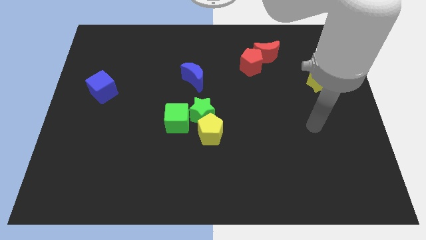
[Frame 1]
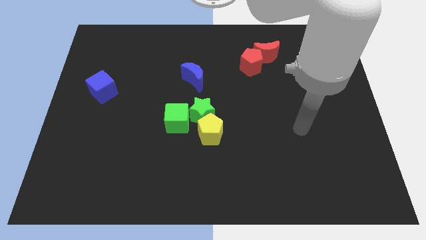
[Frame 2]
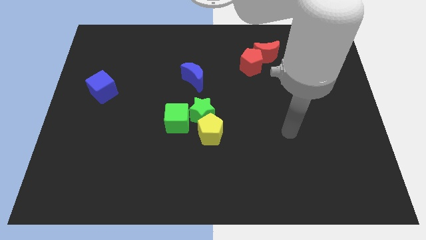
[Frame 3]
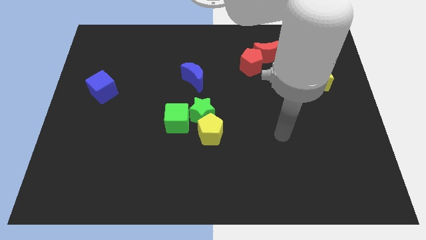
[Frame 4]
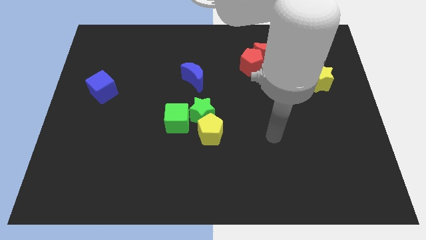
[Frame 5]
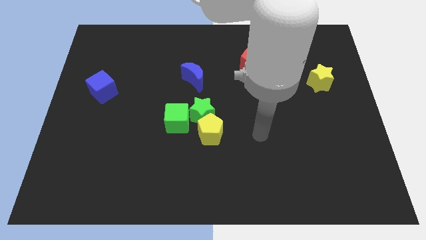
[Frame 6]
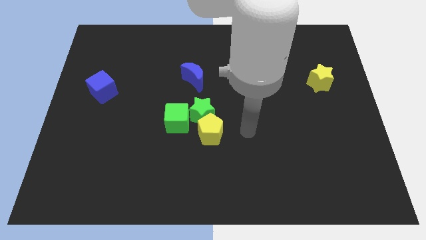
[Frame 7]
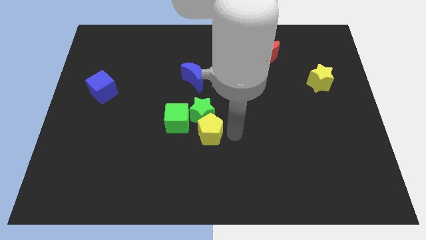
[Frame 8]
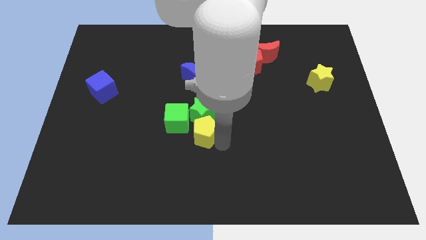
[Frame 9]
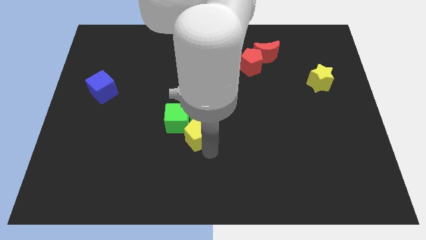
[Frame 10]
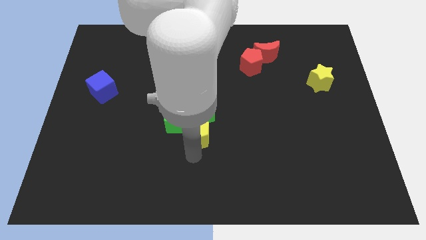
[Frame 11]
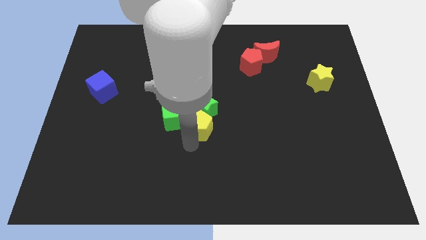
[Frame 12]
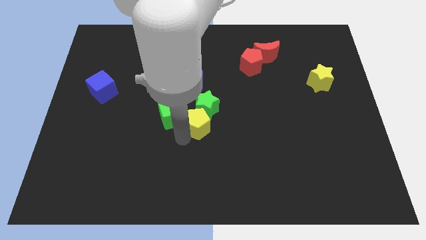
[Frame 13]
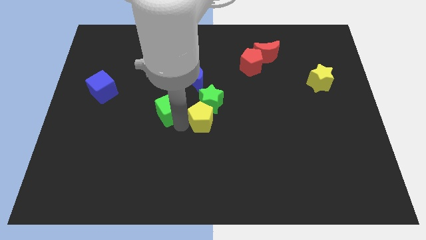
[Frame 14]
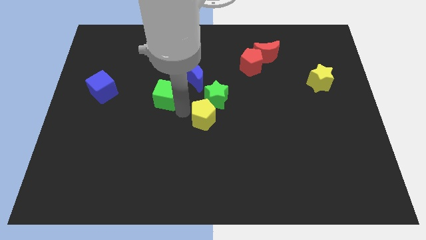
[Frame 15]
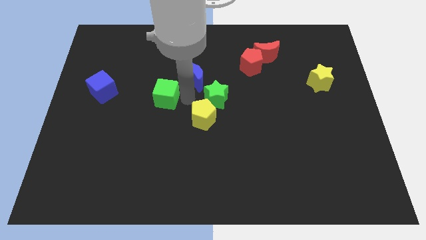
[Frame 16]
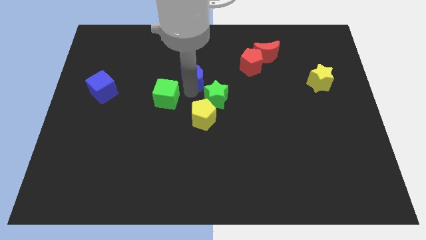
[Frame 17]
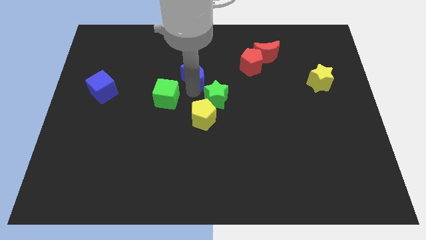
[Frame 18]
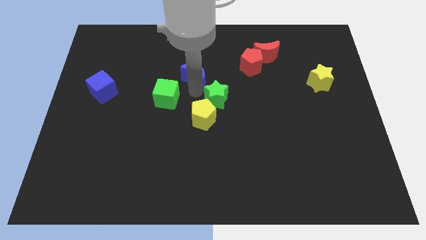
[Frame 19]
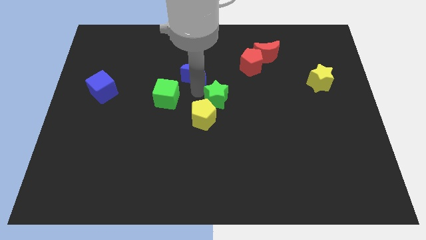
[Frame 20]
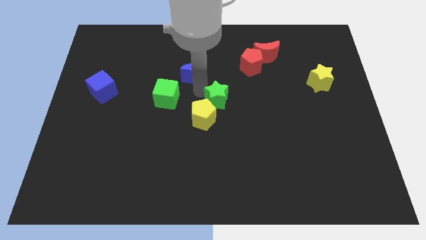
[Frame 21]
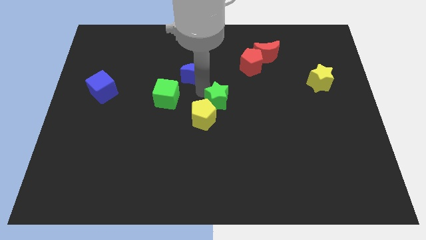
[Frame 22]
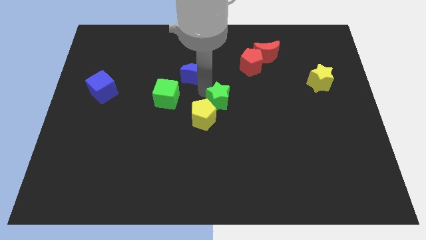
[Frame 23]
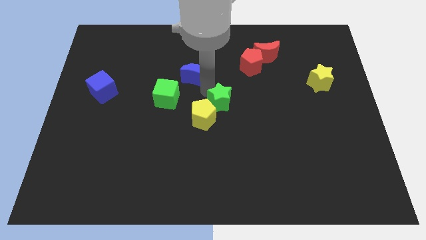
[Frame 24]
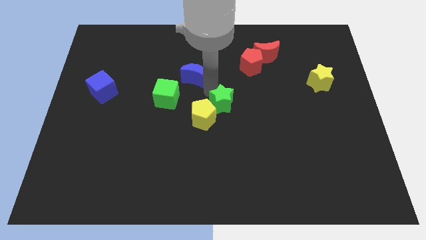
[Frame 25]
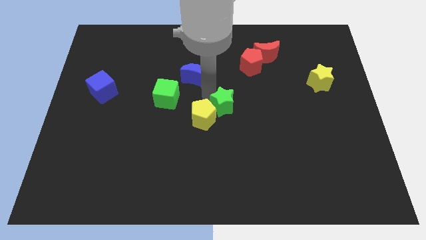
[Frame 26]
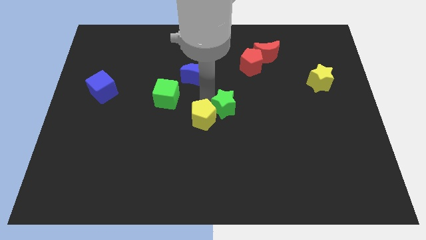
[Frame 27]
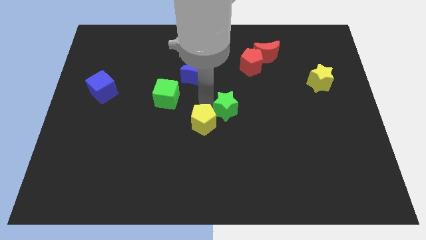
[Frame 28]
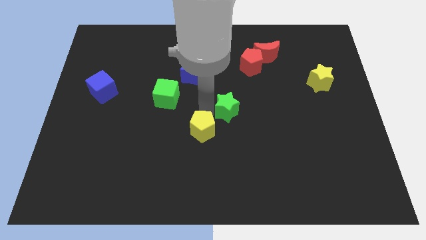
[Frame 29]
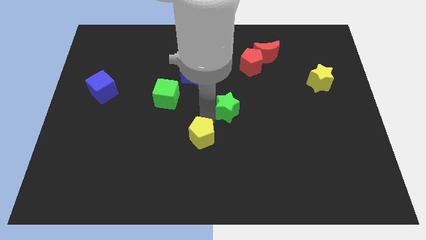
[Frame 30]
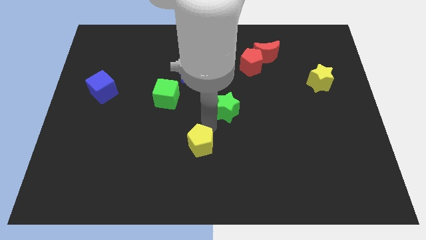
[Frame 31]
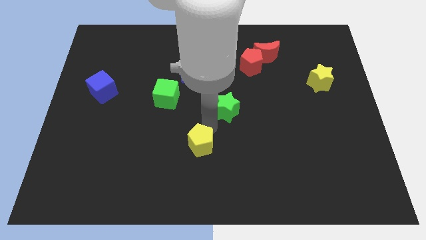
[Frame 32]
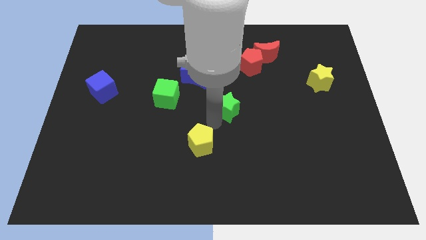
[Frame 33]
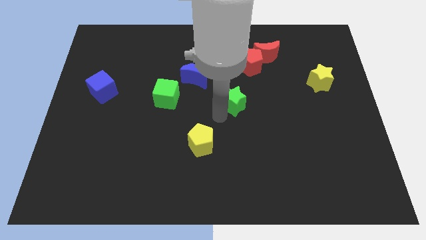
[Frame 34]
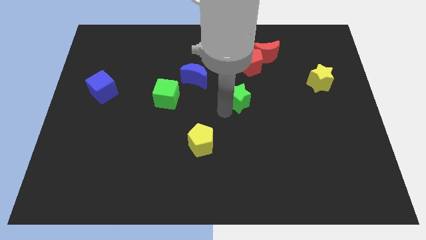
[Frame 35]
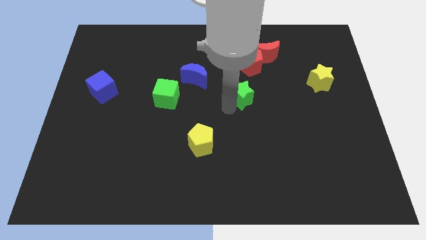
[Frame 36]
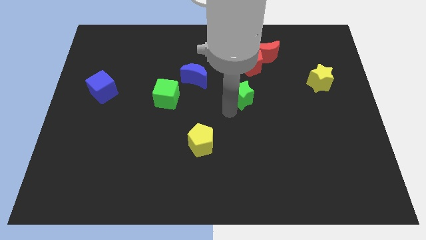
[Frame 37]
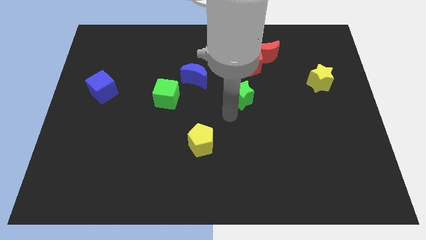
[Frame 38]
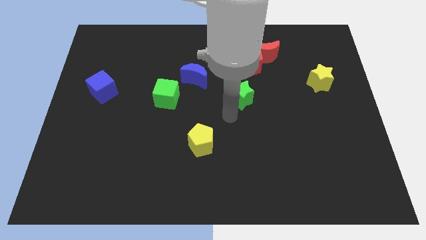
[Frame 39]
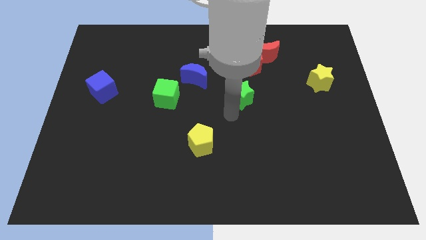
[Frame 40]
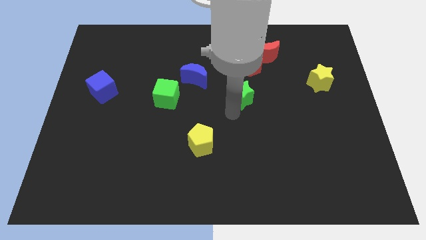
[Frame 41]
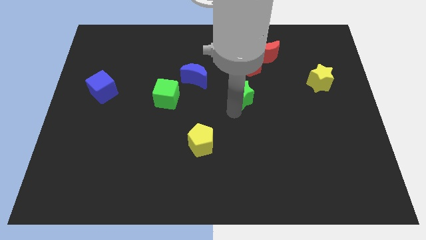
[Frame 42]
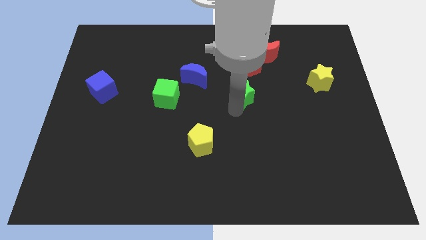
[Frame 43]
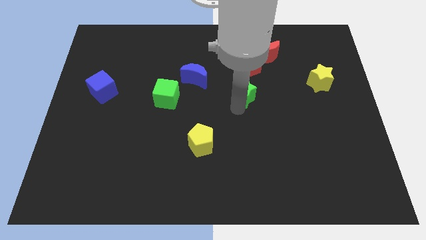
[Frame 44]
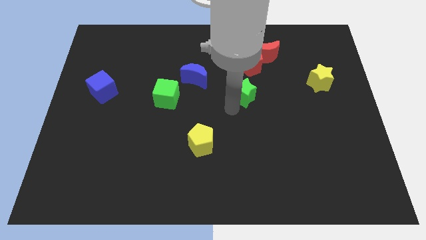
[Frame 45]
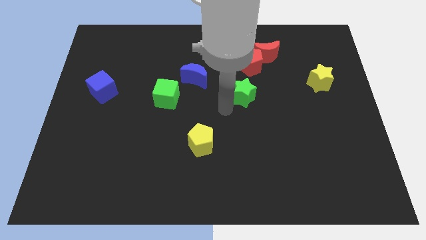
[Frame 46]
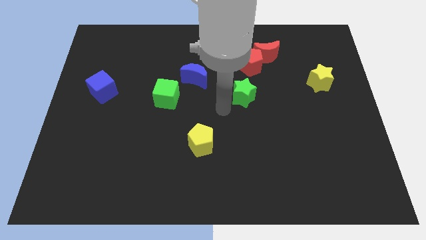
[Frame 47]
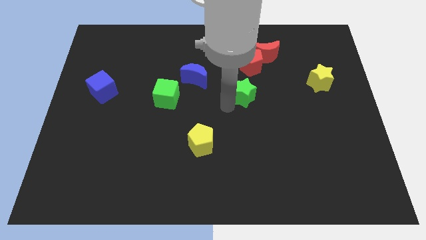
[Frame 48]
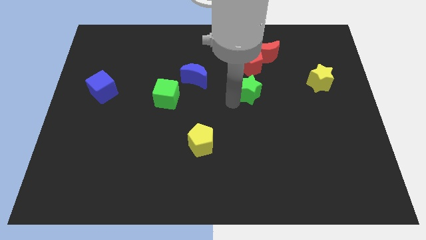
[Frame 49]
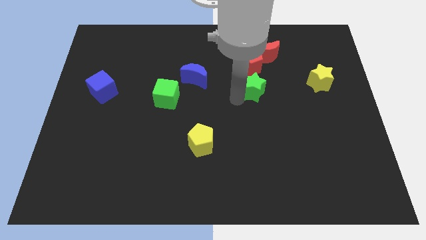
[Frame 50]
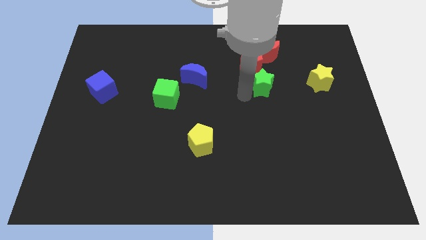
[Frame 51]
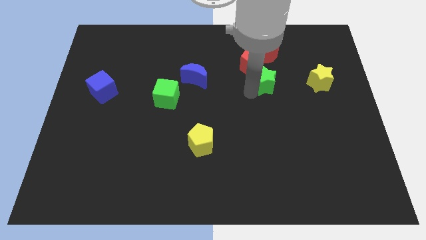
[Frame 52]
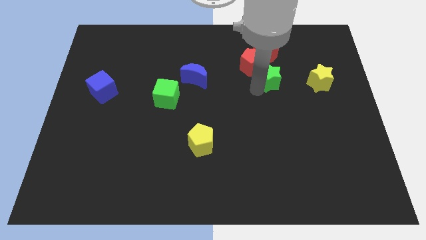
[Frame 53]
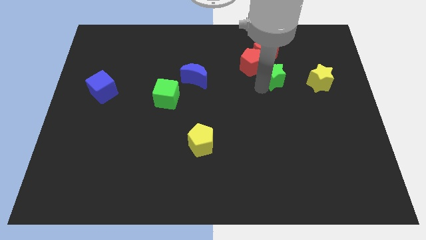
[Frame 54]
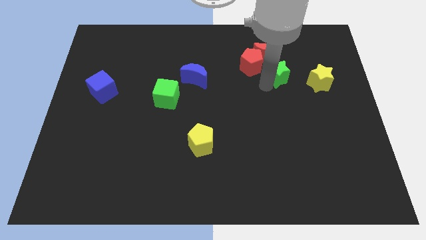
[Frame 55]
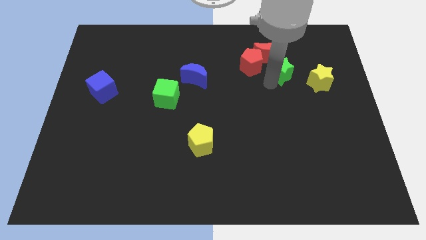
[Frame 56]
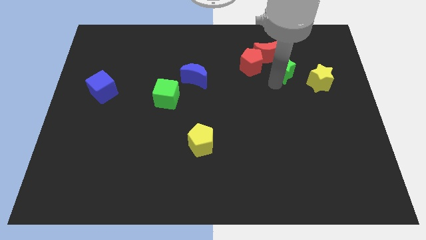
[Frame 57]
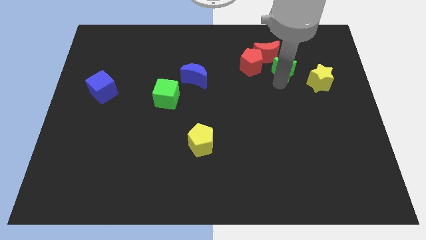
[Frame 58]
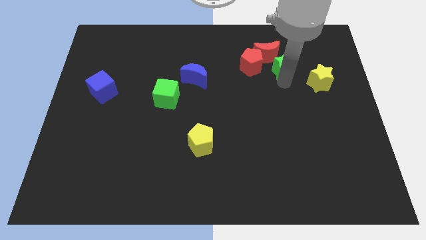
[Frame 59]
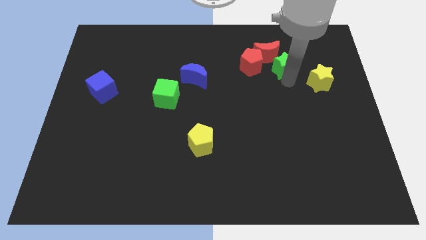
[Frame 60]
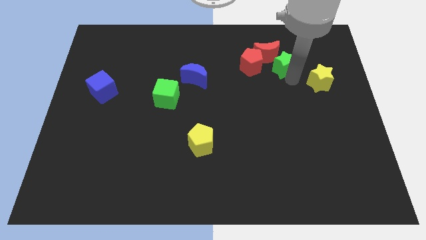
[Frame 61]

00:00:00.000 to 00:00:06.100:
push the green star next to the red moon

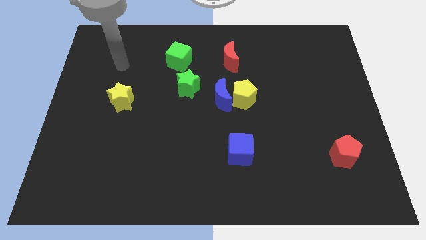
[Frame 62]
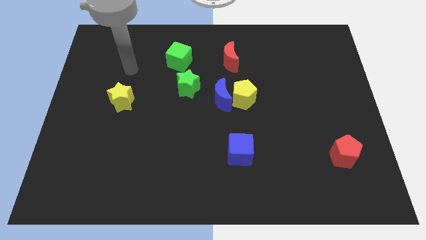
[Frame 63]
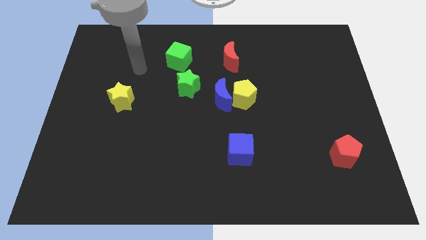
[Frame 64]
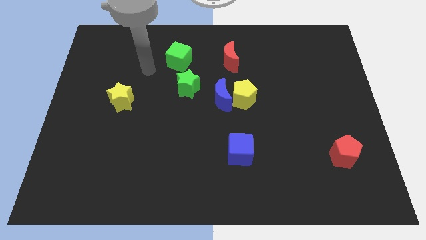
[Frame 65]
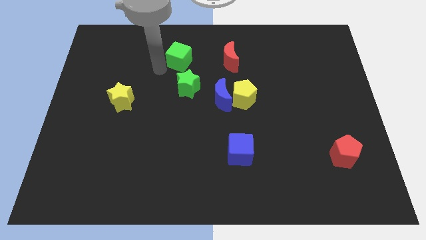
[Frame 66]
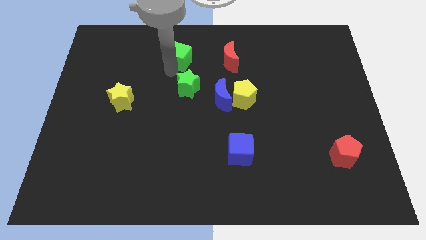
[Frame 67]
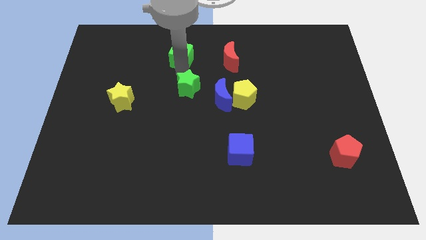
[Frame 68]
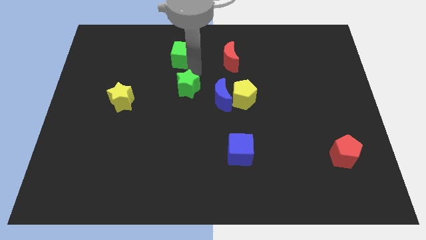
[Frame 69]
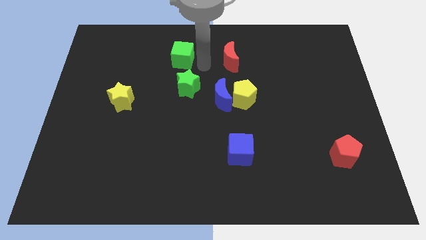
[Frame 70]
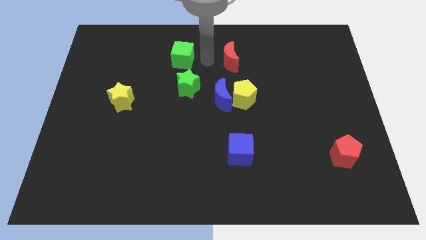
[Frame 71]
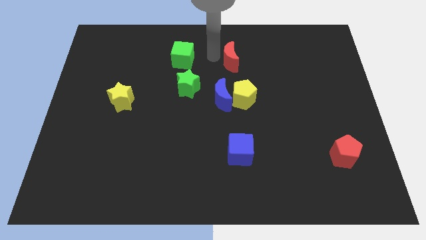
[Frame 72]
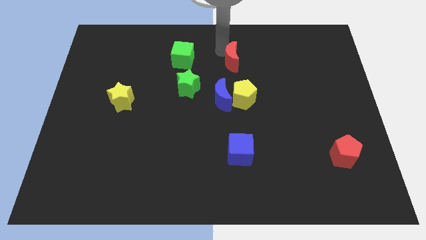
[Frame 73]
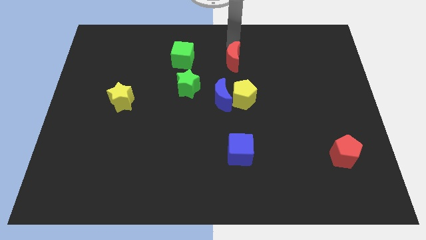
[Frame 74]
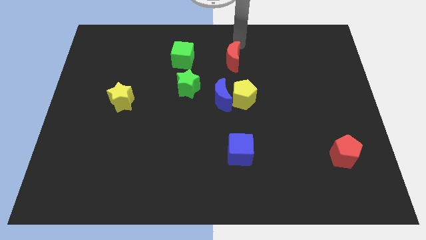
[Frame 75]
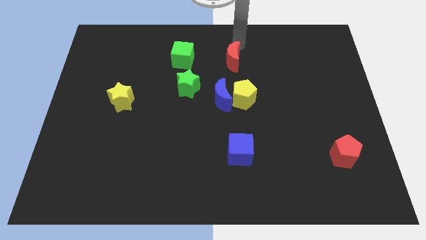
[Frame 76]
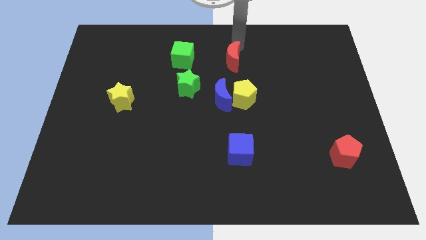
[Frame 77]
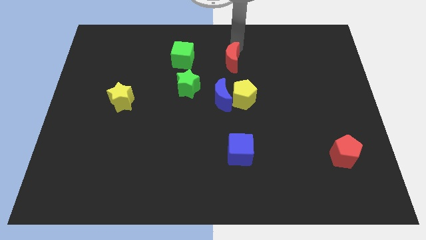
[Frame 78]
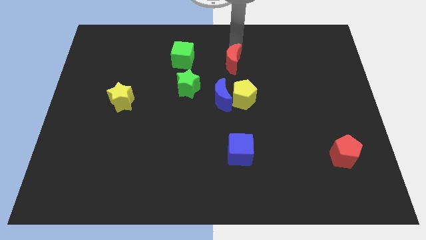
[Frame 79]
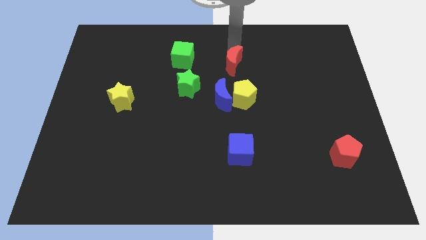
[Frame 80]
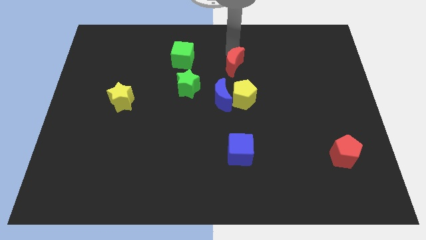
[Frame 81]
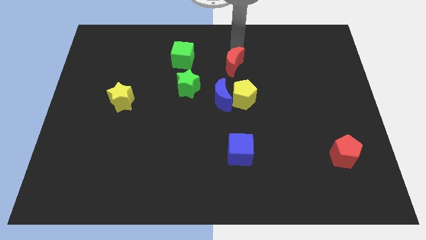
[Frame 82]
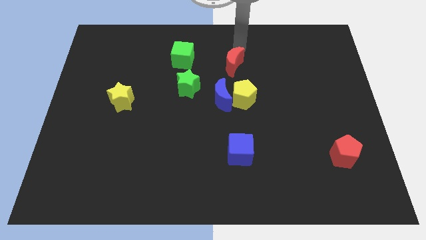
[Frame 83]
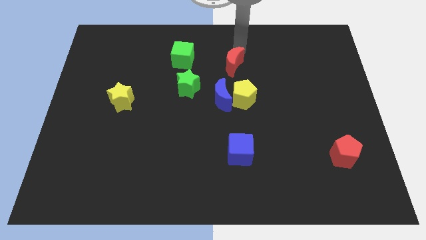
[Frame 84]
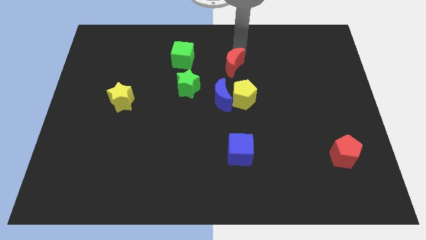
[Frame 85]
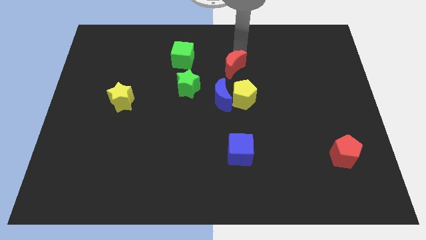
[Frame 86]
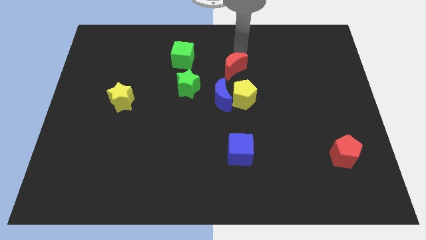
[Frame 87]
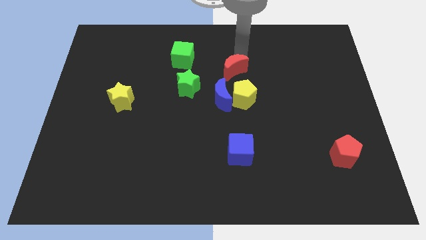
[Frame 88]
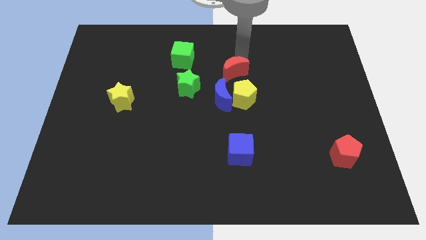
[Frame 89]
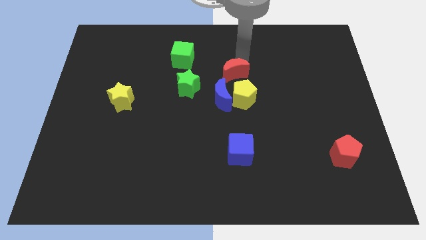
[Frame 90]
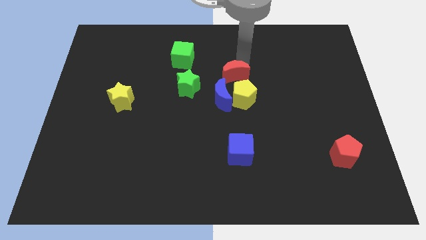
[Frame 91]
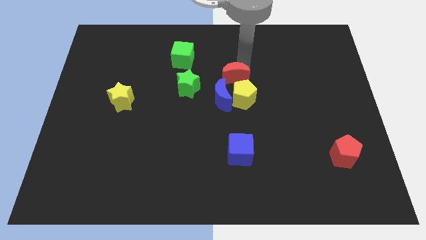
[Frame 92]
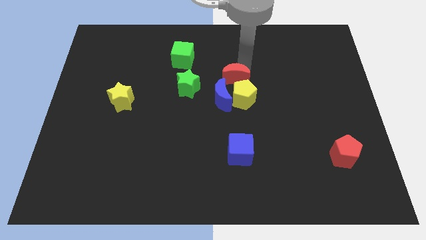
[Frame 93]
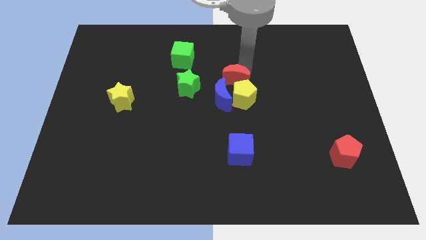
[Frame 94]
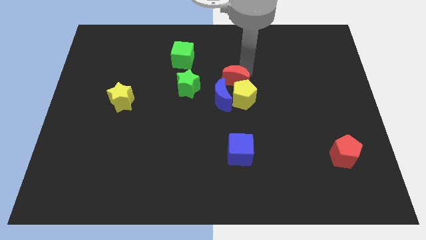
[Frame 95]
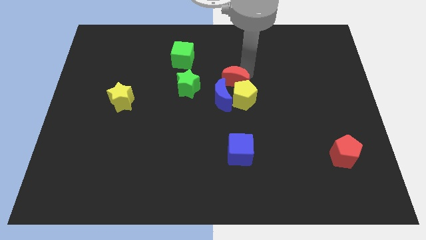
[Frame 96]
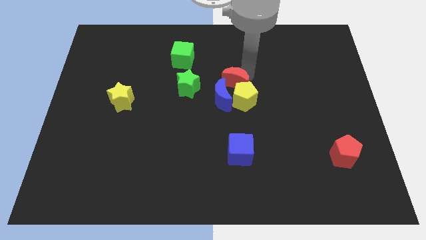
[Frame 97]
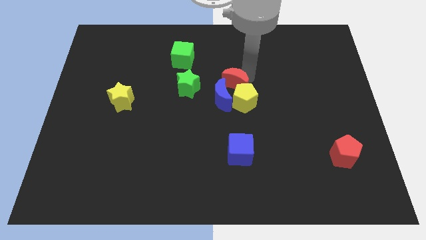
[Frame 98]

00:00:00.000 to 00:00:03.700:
put the red moon to the blue moon
